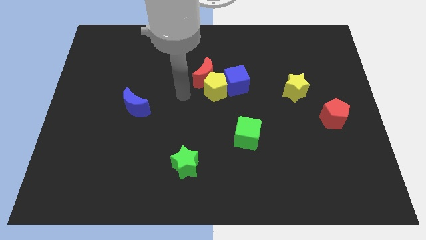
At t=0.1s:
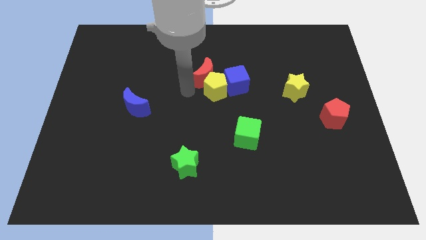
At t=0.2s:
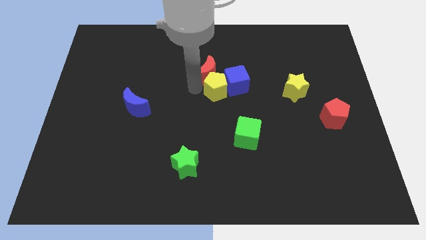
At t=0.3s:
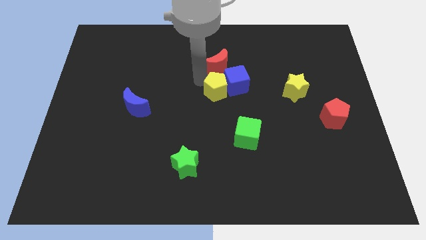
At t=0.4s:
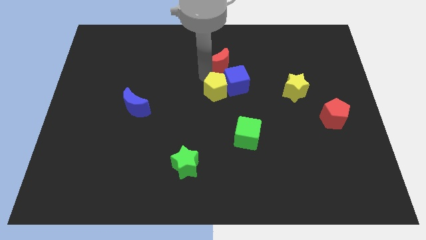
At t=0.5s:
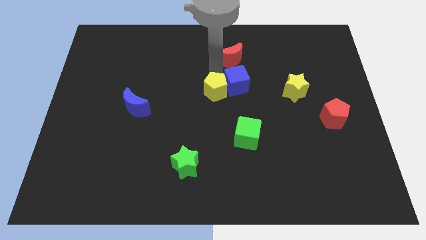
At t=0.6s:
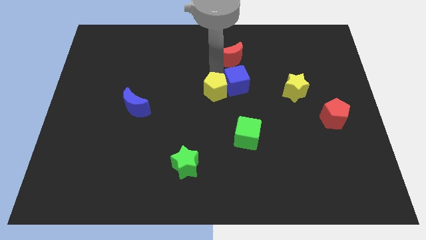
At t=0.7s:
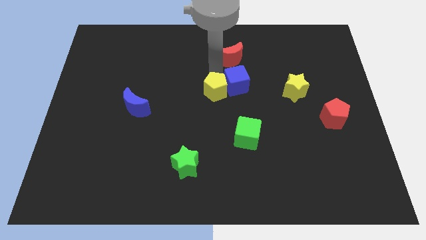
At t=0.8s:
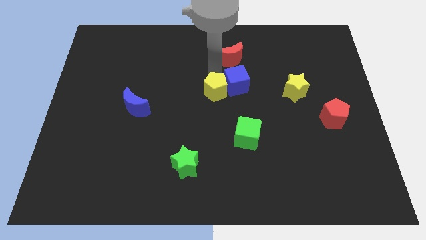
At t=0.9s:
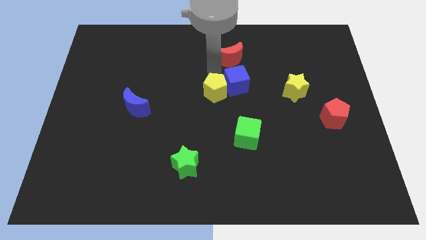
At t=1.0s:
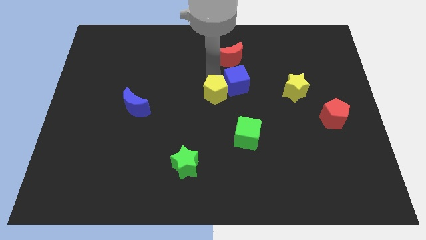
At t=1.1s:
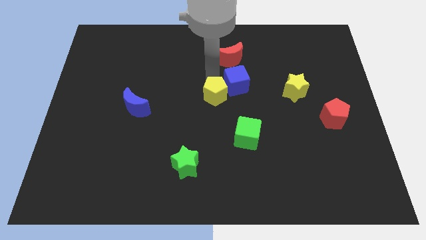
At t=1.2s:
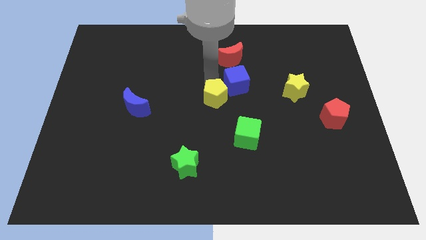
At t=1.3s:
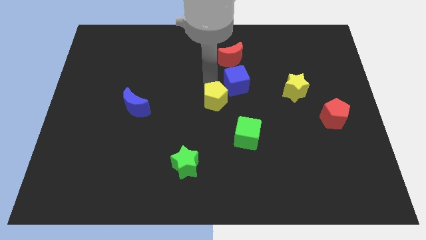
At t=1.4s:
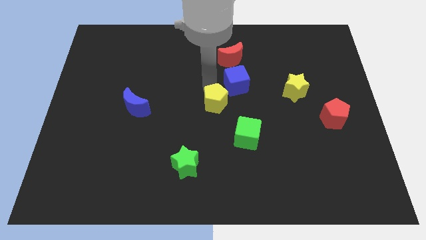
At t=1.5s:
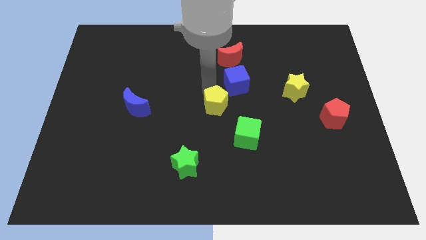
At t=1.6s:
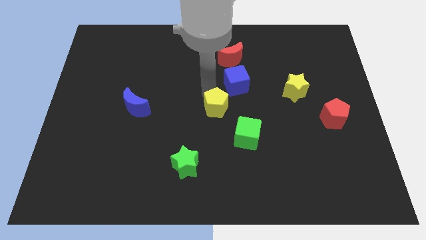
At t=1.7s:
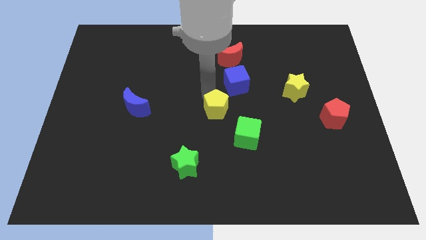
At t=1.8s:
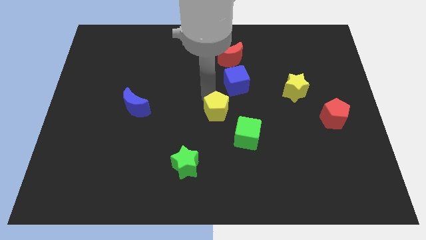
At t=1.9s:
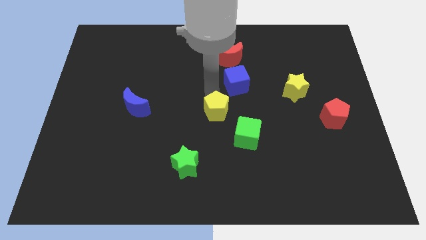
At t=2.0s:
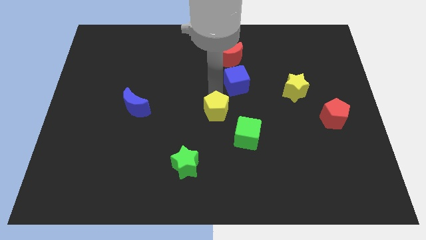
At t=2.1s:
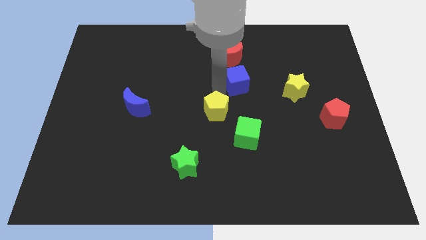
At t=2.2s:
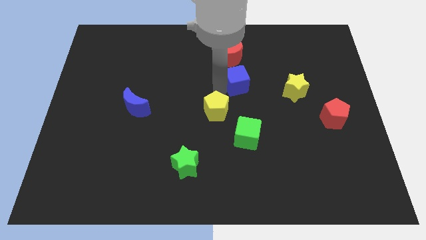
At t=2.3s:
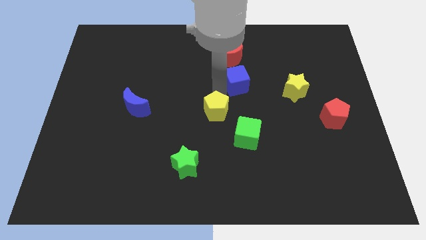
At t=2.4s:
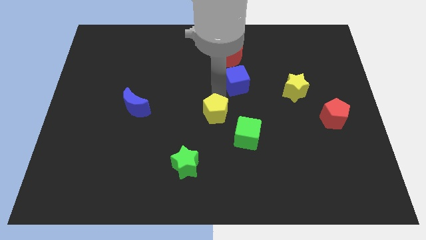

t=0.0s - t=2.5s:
slightly move the yellow pentagon downwards

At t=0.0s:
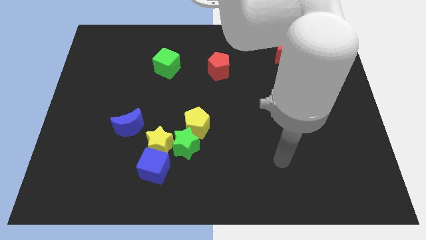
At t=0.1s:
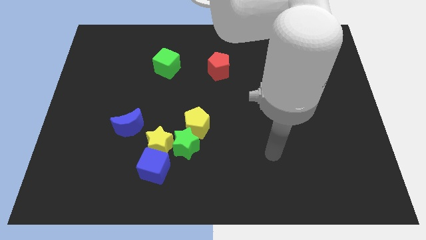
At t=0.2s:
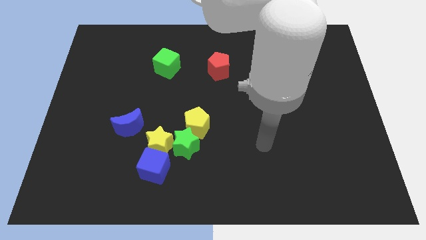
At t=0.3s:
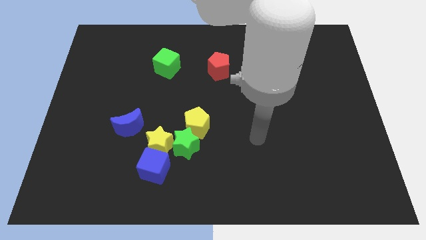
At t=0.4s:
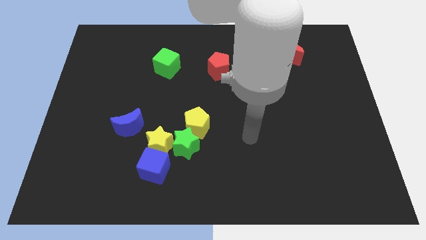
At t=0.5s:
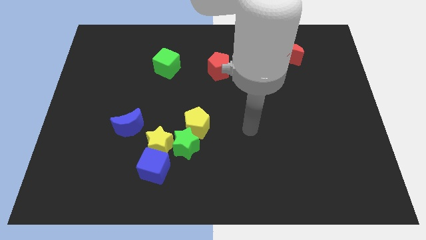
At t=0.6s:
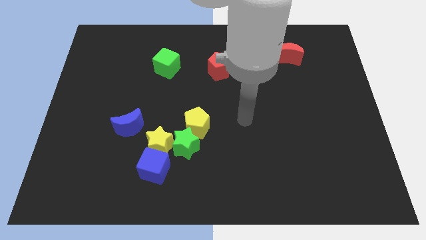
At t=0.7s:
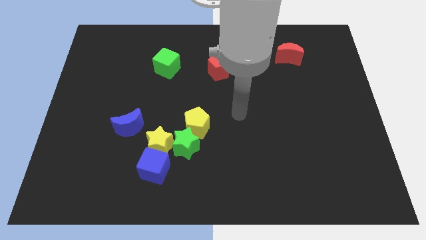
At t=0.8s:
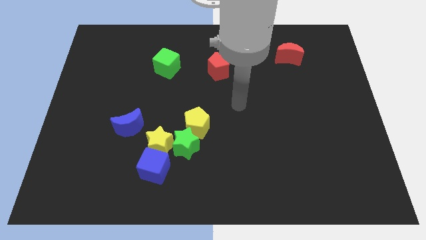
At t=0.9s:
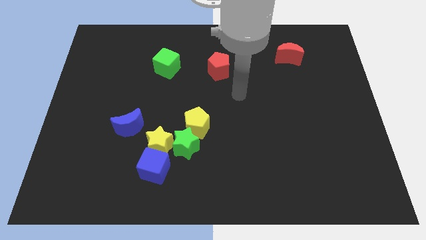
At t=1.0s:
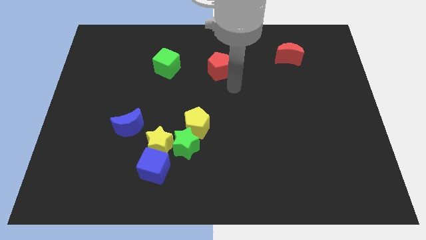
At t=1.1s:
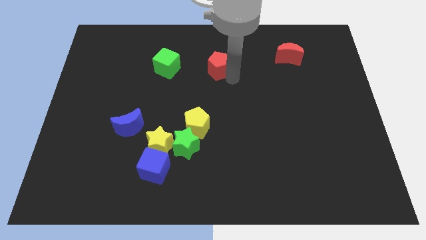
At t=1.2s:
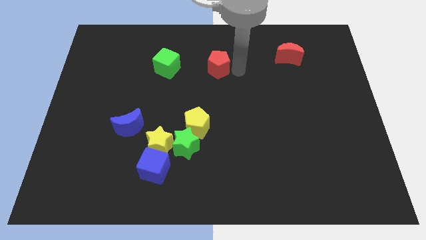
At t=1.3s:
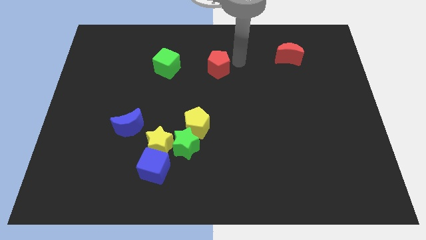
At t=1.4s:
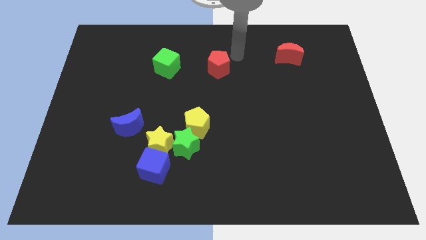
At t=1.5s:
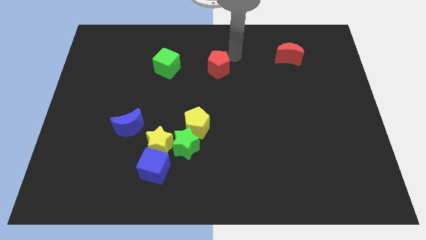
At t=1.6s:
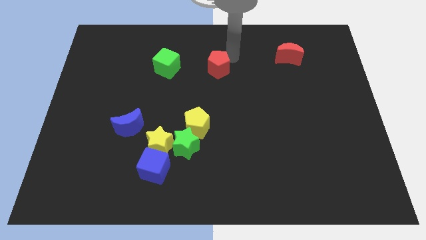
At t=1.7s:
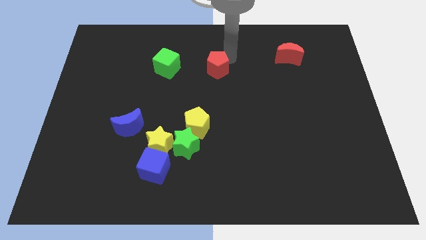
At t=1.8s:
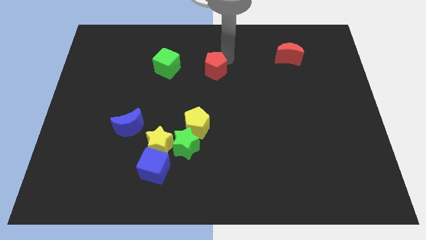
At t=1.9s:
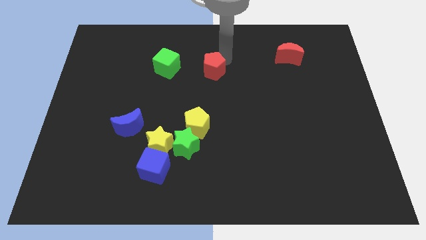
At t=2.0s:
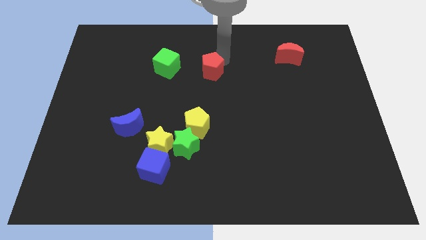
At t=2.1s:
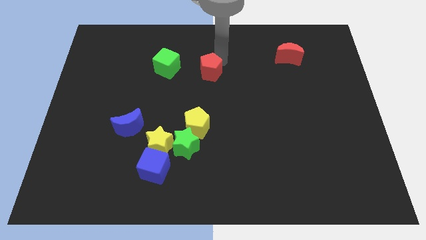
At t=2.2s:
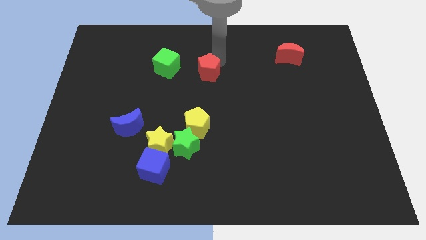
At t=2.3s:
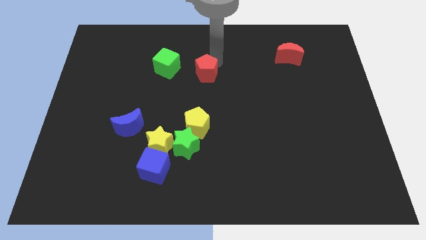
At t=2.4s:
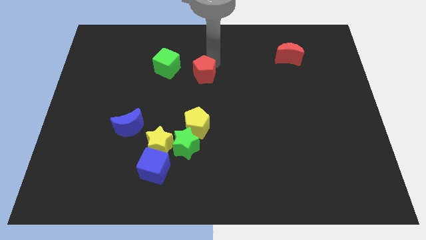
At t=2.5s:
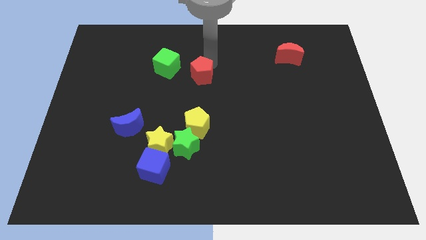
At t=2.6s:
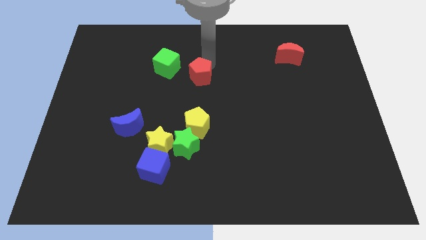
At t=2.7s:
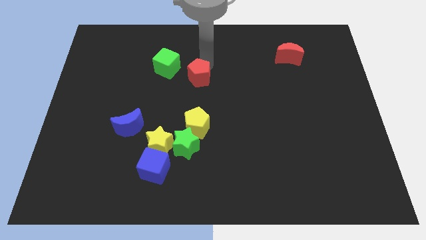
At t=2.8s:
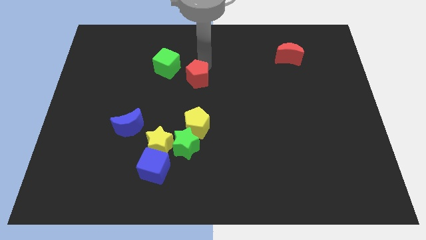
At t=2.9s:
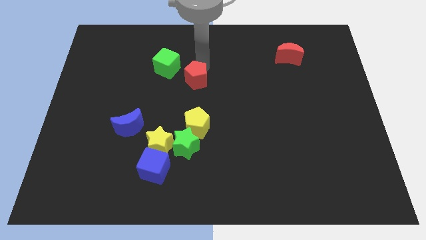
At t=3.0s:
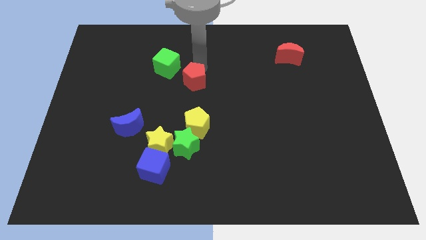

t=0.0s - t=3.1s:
slide the red pentagon a bit diagonally down and left

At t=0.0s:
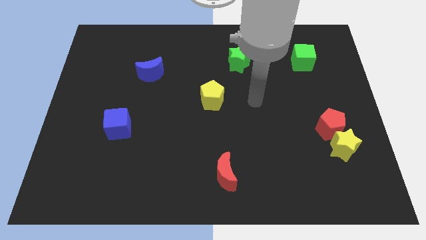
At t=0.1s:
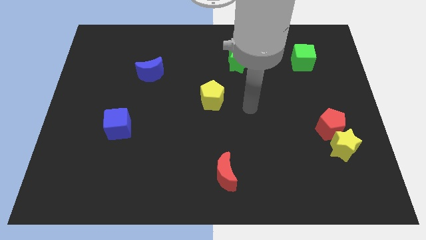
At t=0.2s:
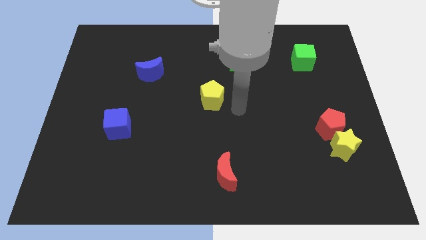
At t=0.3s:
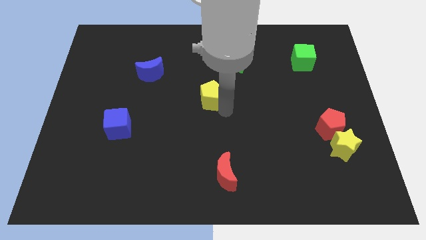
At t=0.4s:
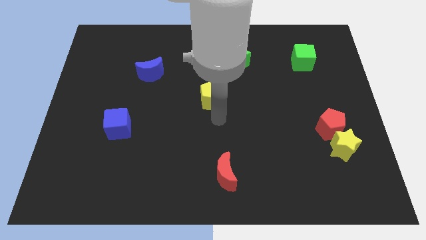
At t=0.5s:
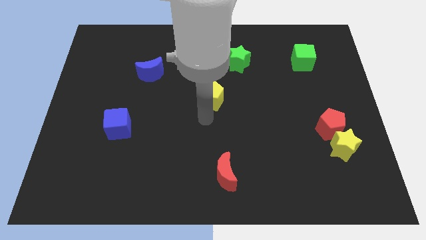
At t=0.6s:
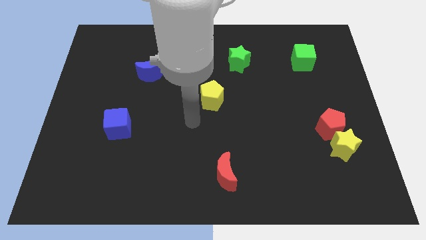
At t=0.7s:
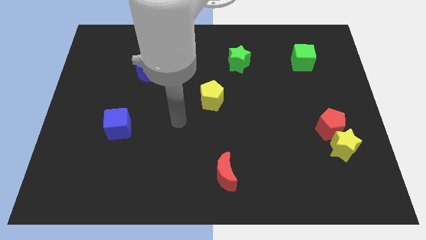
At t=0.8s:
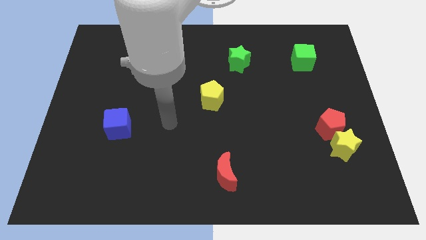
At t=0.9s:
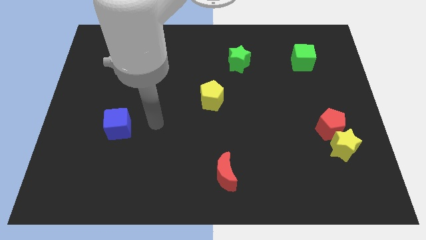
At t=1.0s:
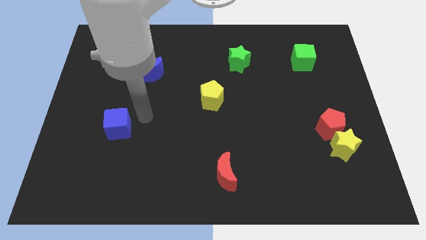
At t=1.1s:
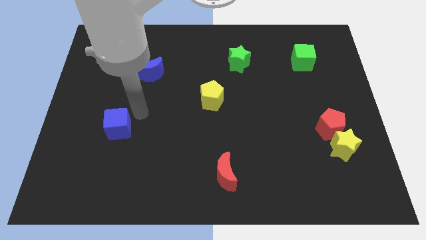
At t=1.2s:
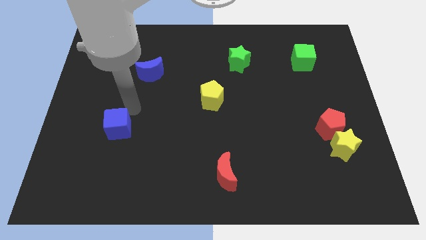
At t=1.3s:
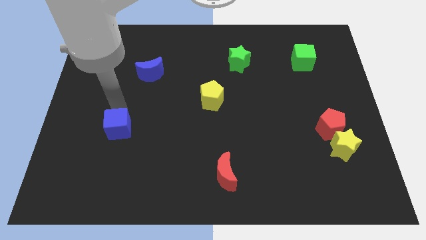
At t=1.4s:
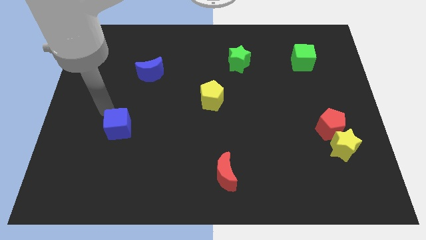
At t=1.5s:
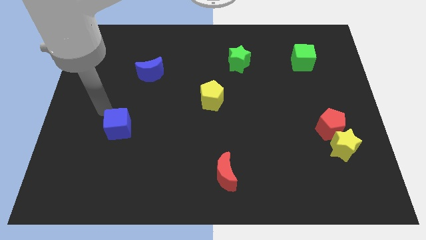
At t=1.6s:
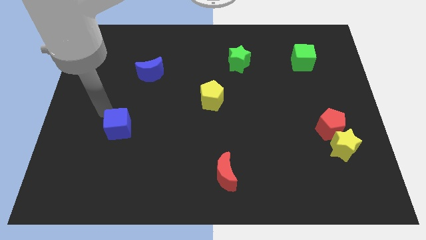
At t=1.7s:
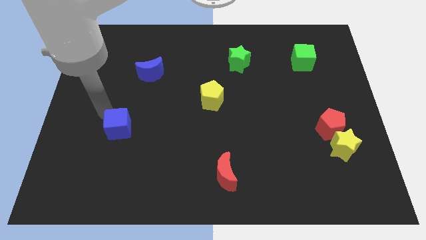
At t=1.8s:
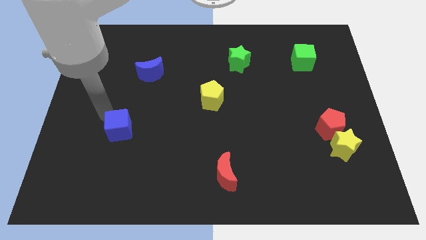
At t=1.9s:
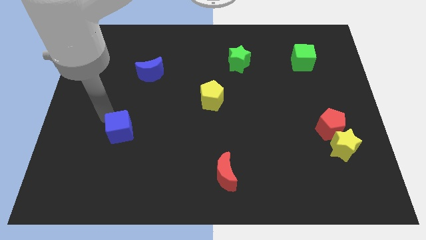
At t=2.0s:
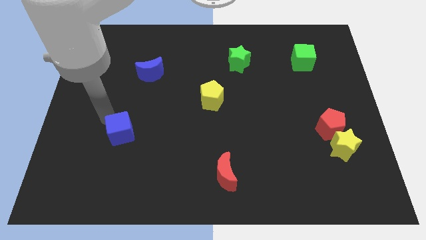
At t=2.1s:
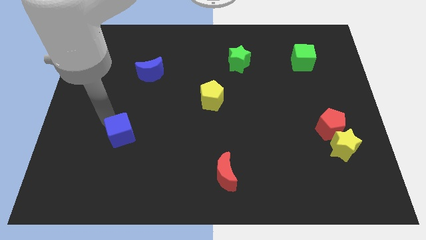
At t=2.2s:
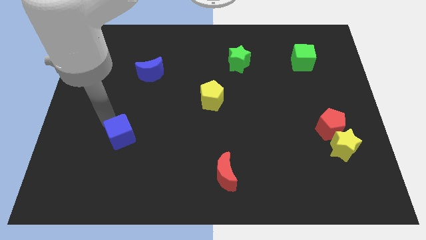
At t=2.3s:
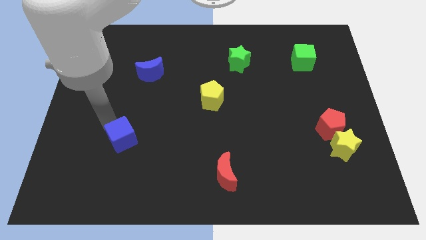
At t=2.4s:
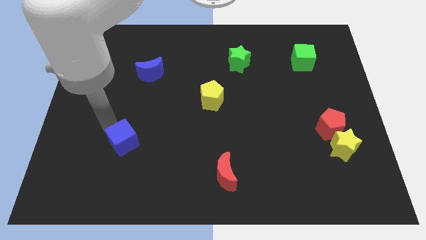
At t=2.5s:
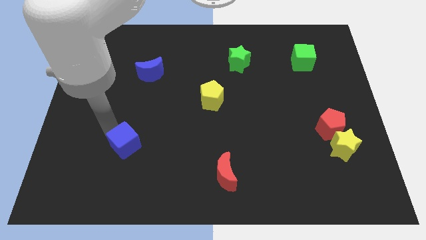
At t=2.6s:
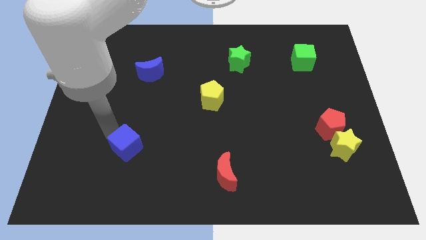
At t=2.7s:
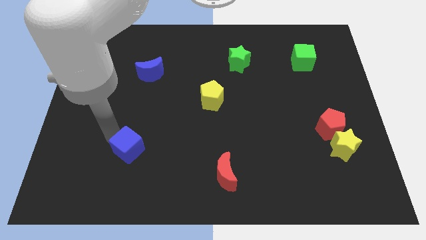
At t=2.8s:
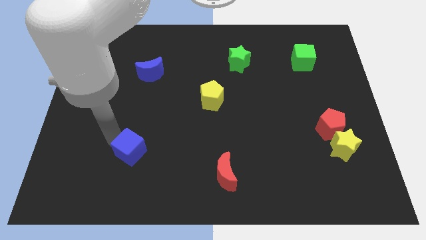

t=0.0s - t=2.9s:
push the blue cube slightly downwards and then to the right
